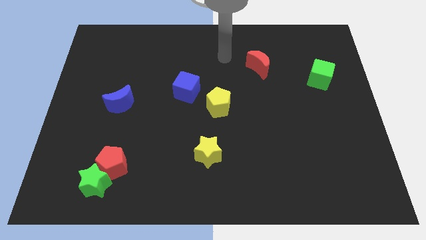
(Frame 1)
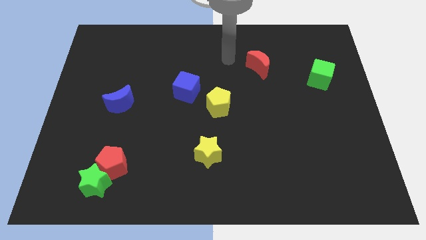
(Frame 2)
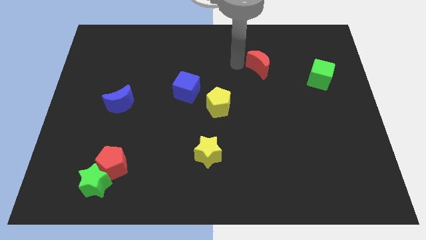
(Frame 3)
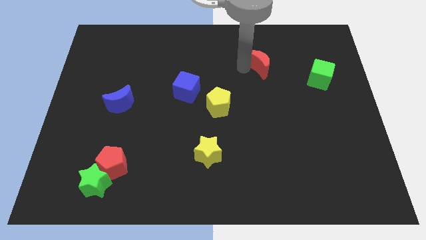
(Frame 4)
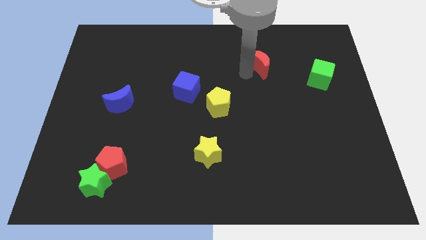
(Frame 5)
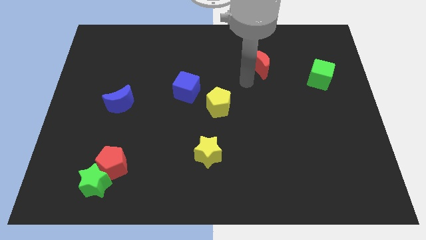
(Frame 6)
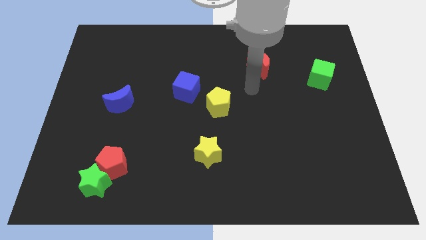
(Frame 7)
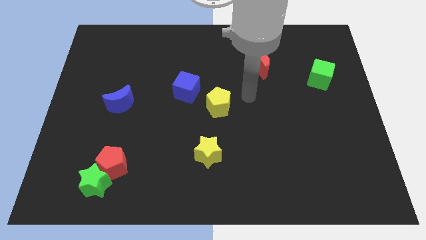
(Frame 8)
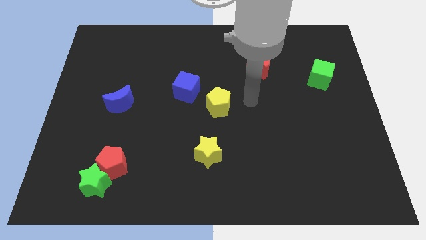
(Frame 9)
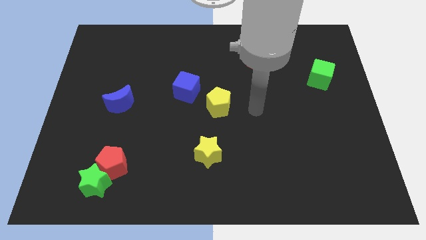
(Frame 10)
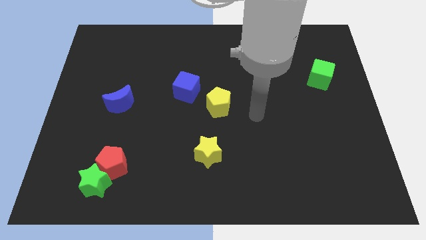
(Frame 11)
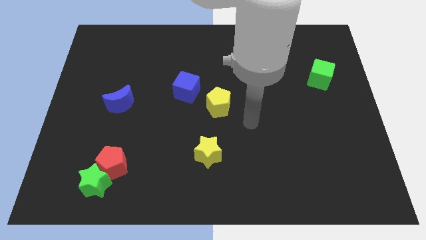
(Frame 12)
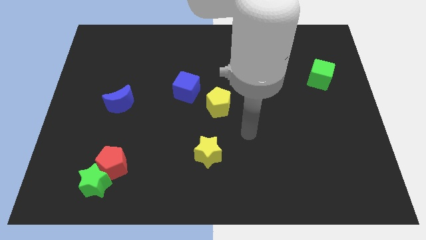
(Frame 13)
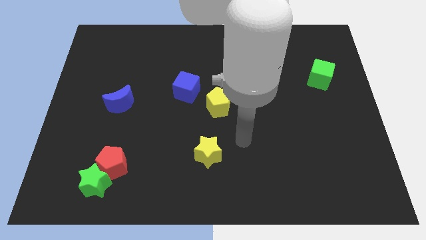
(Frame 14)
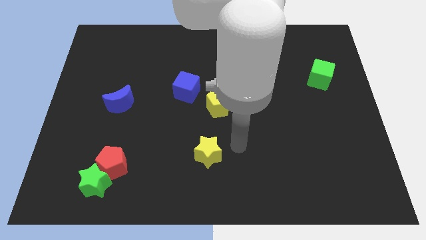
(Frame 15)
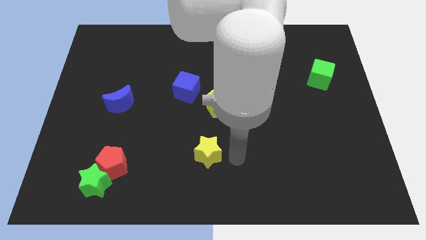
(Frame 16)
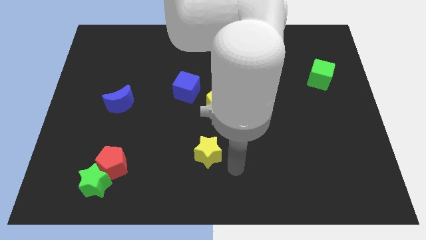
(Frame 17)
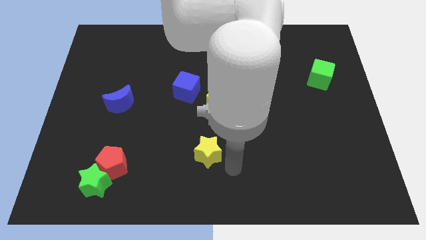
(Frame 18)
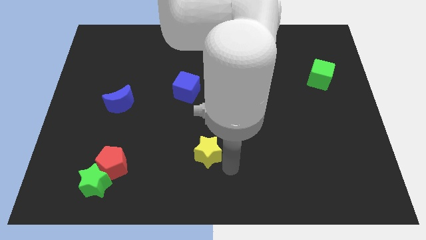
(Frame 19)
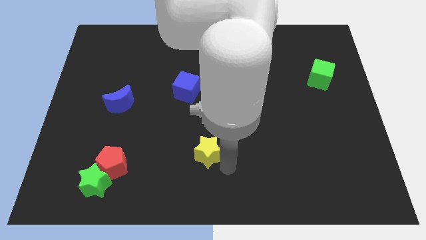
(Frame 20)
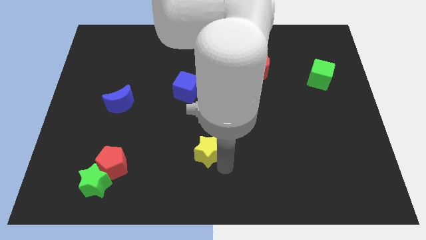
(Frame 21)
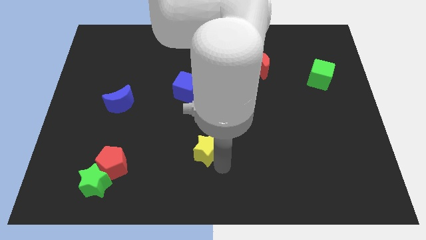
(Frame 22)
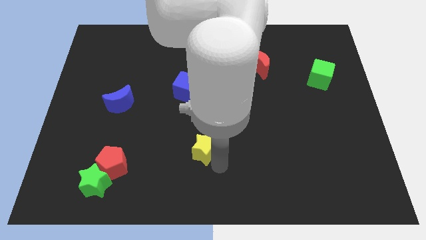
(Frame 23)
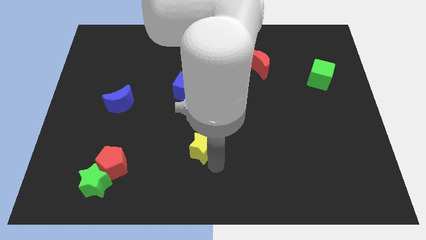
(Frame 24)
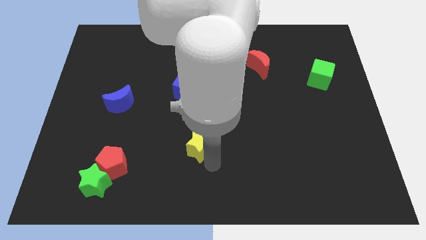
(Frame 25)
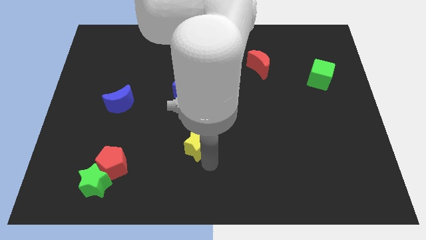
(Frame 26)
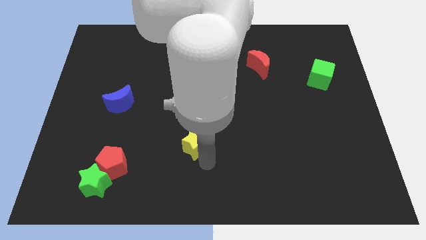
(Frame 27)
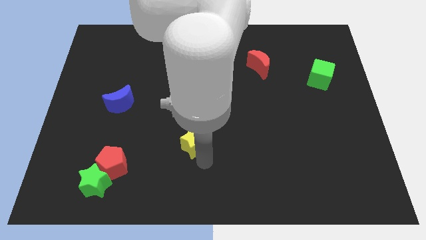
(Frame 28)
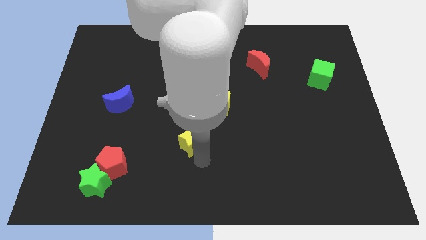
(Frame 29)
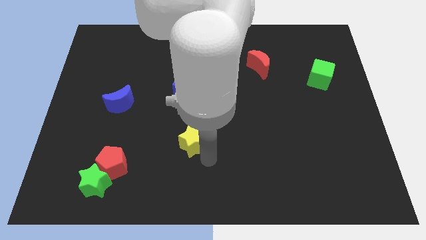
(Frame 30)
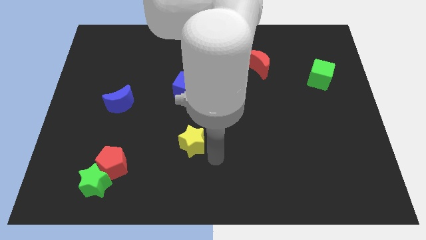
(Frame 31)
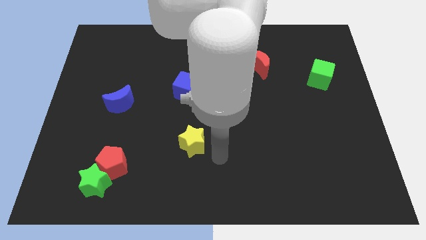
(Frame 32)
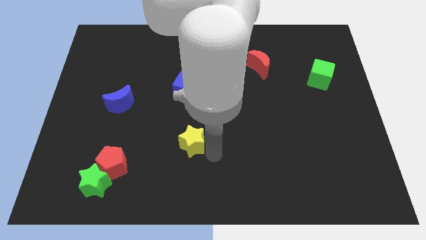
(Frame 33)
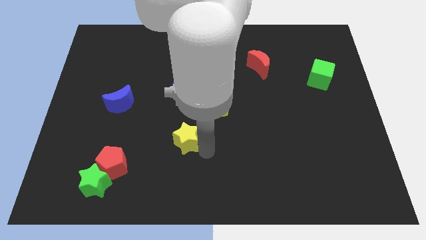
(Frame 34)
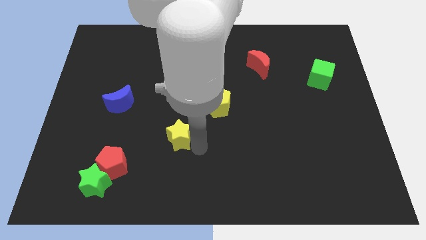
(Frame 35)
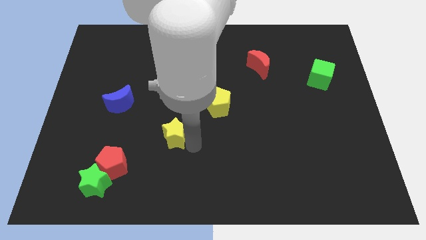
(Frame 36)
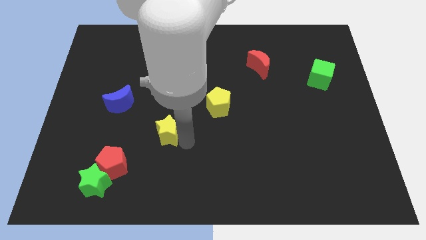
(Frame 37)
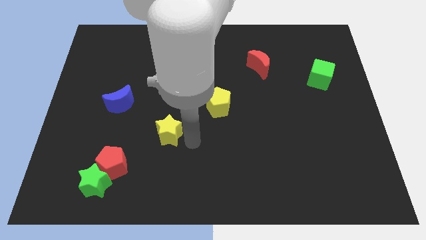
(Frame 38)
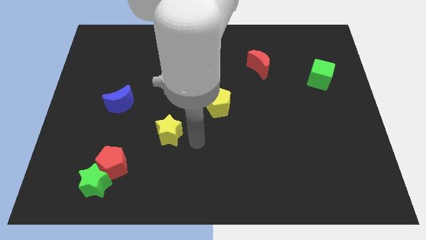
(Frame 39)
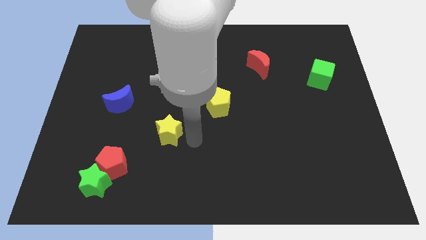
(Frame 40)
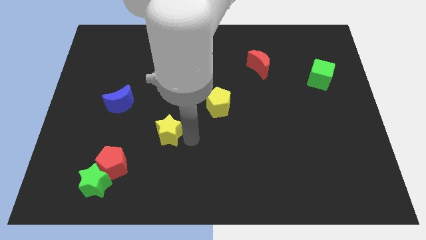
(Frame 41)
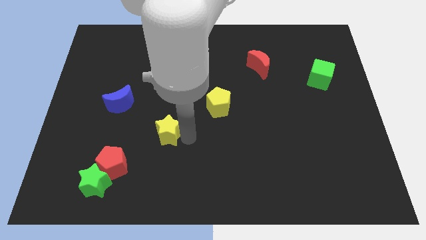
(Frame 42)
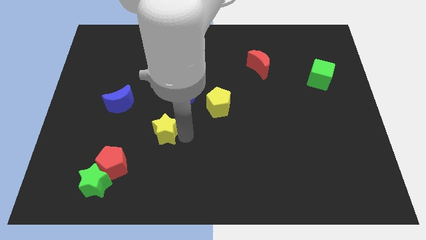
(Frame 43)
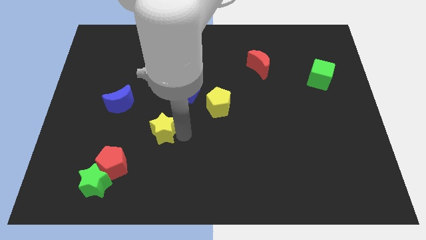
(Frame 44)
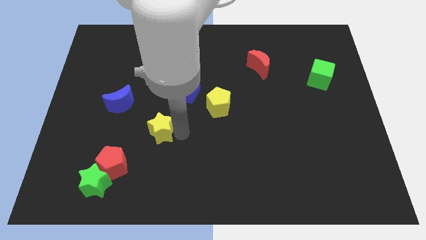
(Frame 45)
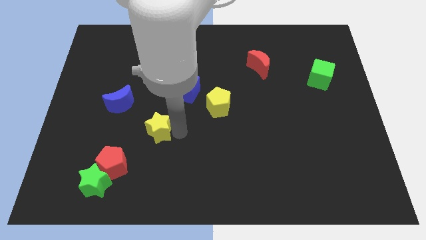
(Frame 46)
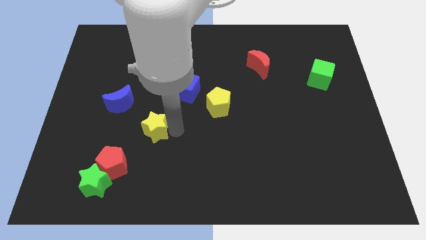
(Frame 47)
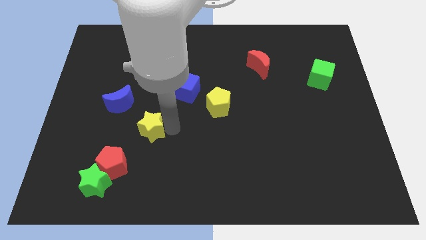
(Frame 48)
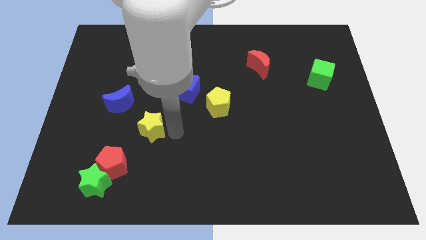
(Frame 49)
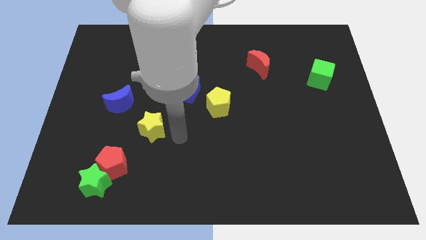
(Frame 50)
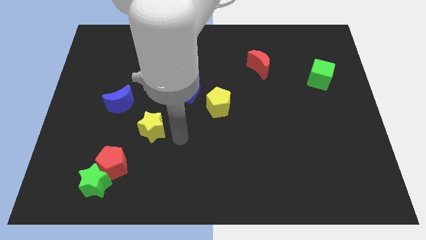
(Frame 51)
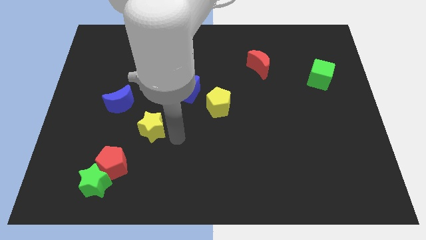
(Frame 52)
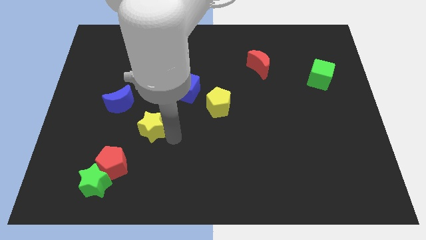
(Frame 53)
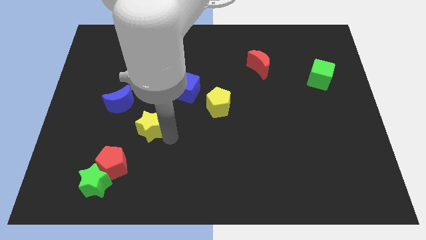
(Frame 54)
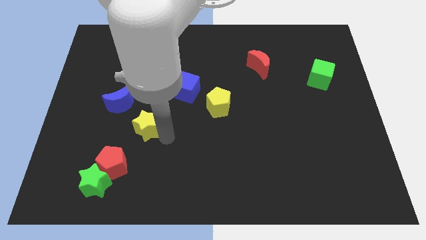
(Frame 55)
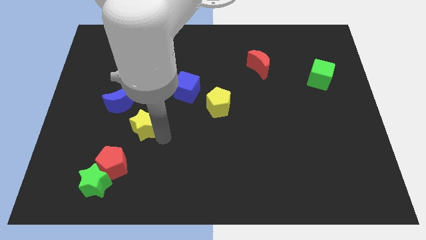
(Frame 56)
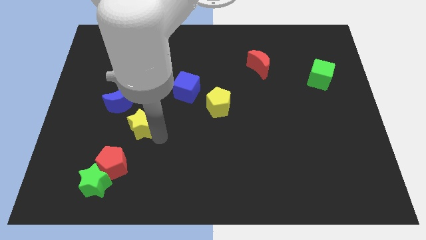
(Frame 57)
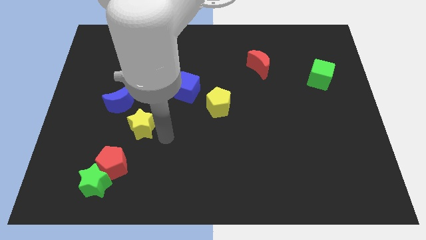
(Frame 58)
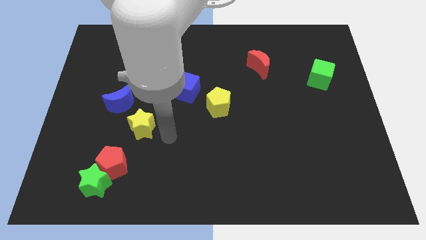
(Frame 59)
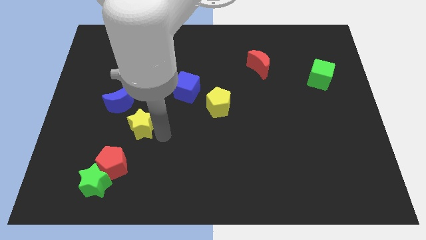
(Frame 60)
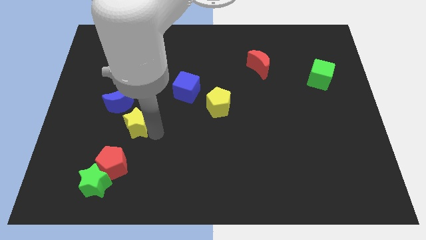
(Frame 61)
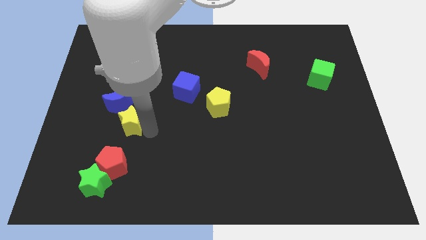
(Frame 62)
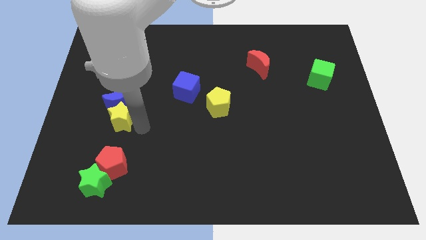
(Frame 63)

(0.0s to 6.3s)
move the yellow star diagonally down and to the left of the blue moon
